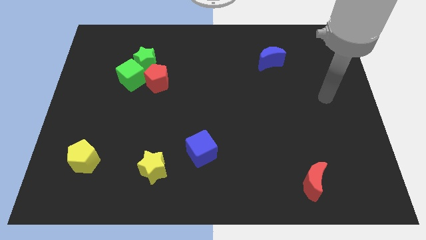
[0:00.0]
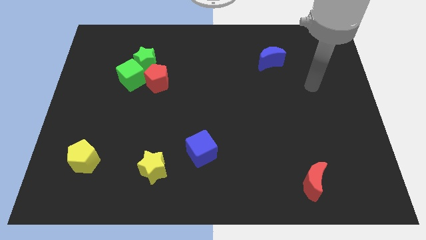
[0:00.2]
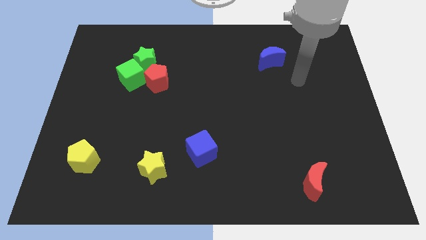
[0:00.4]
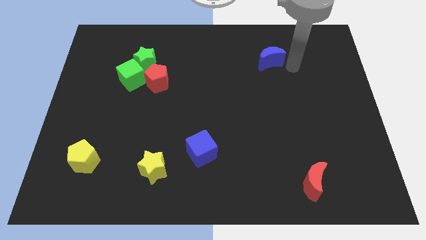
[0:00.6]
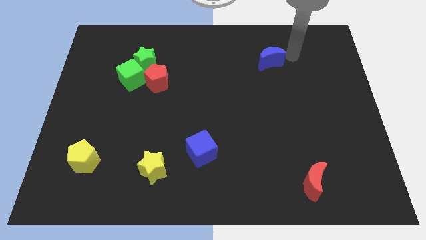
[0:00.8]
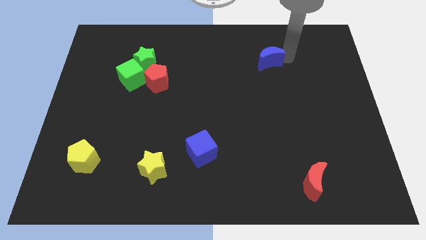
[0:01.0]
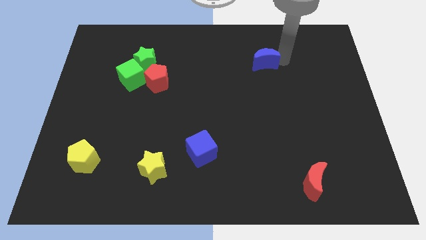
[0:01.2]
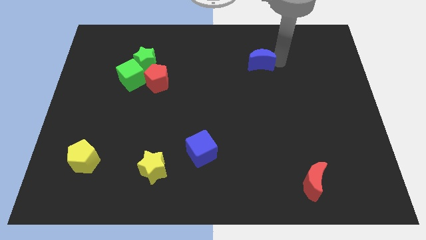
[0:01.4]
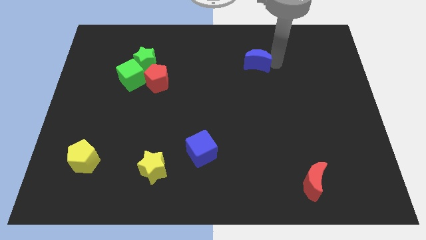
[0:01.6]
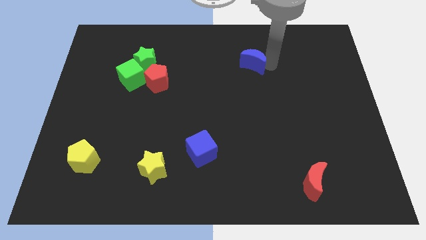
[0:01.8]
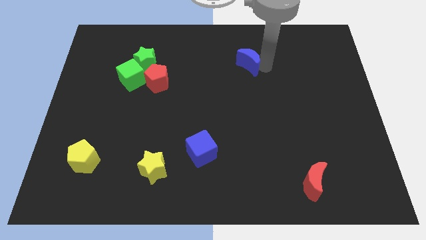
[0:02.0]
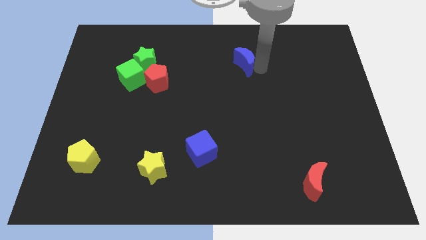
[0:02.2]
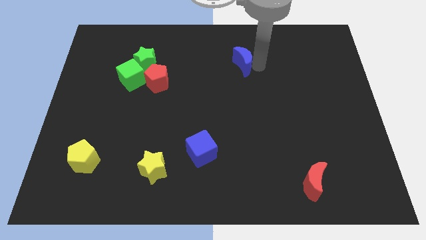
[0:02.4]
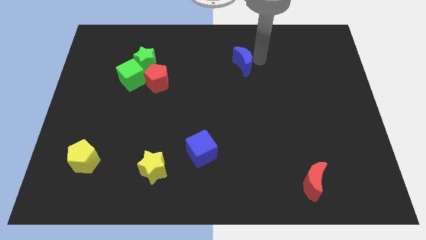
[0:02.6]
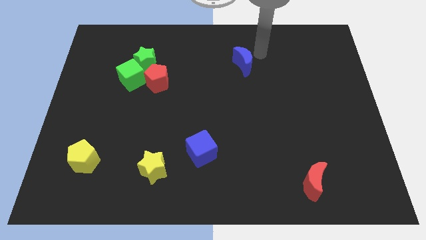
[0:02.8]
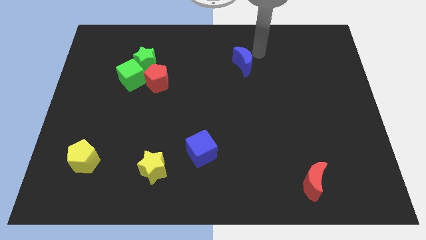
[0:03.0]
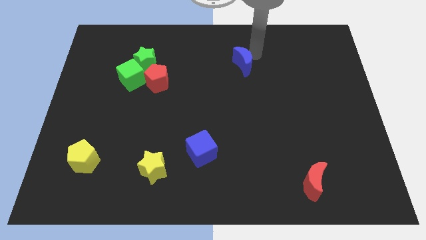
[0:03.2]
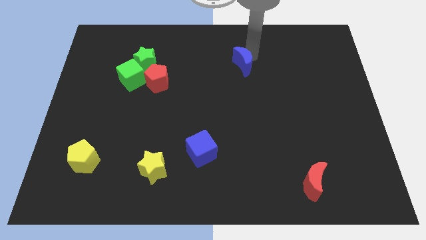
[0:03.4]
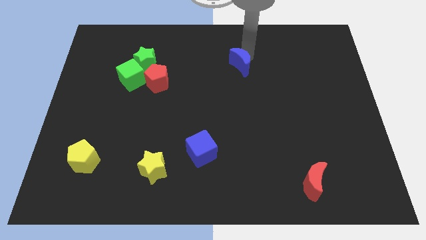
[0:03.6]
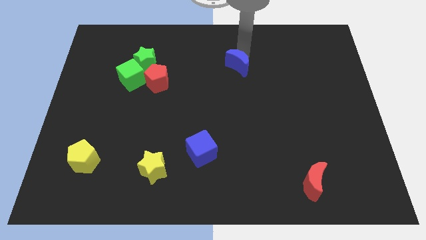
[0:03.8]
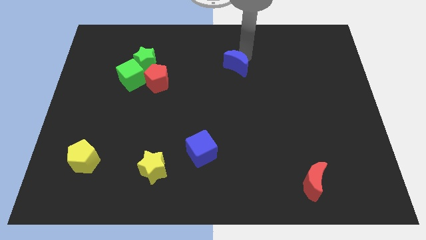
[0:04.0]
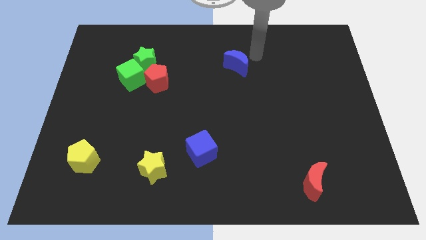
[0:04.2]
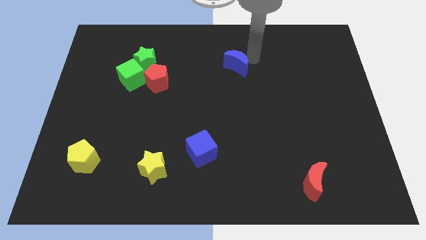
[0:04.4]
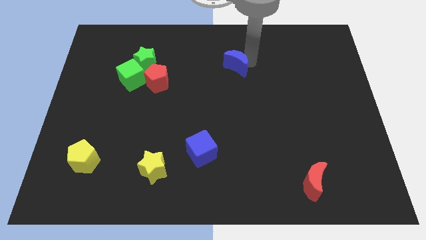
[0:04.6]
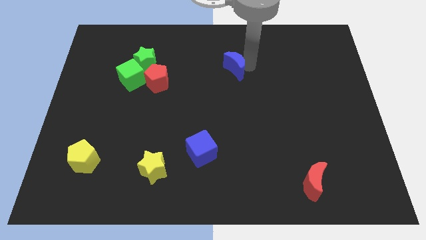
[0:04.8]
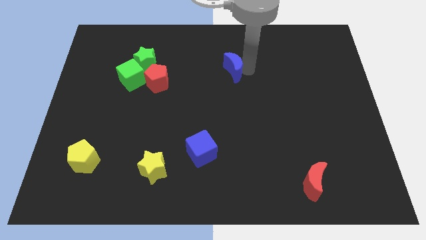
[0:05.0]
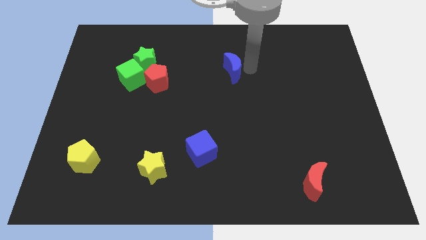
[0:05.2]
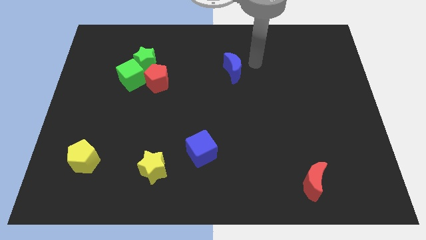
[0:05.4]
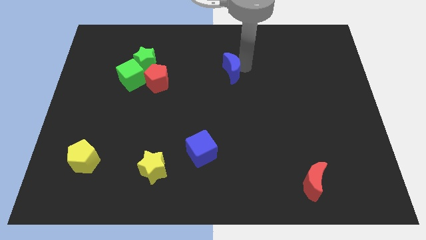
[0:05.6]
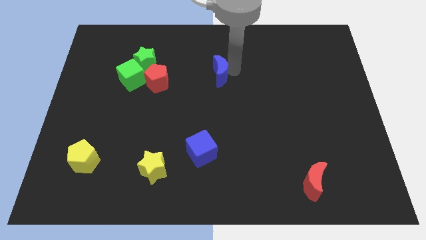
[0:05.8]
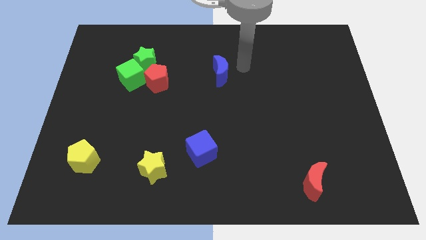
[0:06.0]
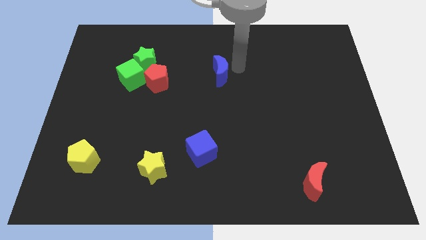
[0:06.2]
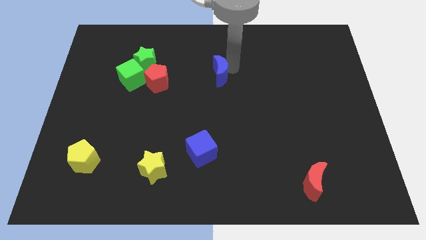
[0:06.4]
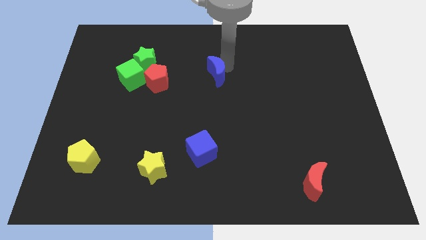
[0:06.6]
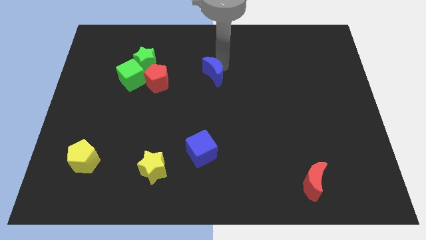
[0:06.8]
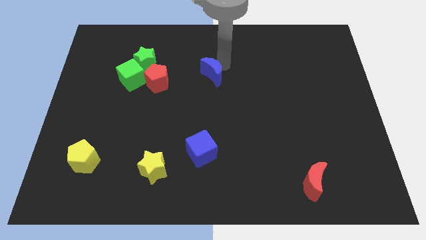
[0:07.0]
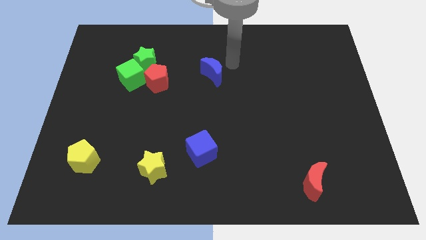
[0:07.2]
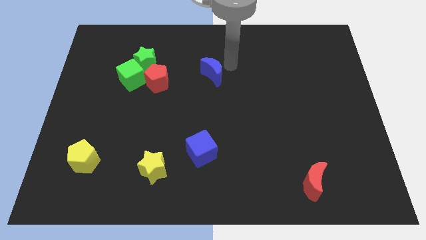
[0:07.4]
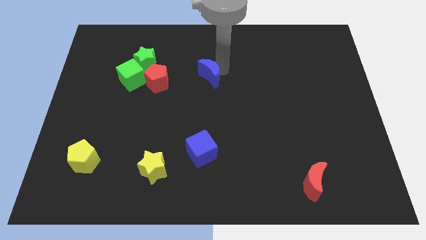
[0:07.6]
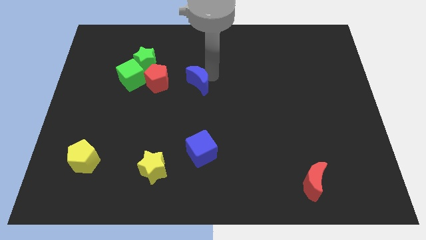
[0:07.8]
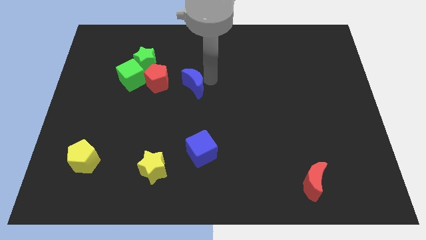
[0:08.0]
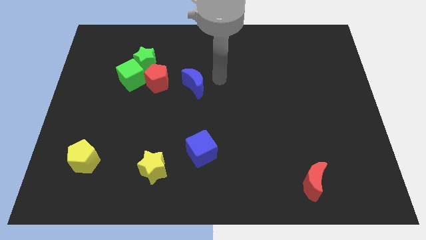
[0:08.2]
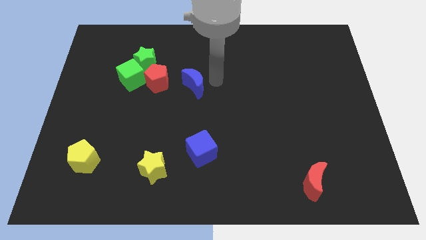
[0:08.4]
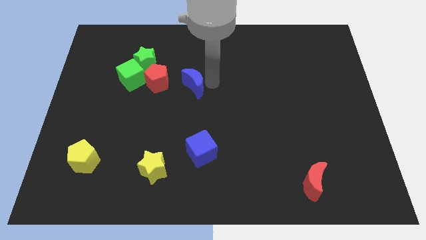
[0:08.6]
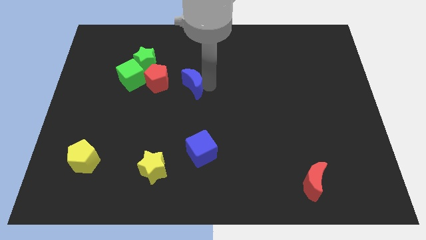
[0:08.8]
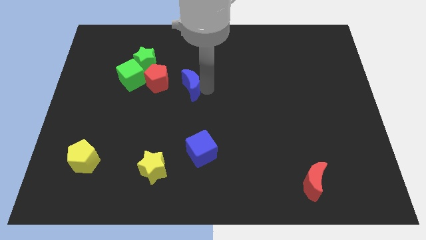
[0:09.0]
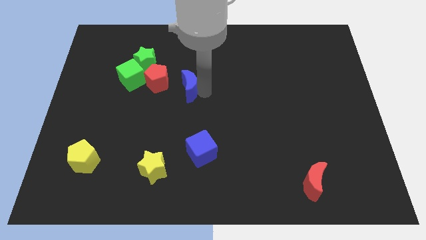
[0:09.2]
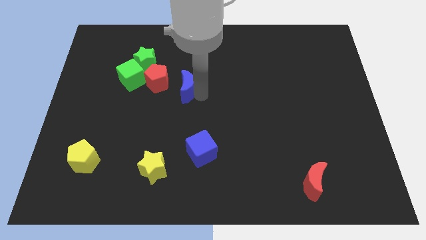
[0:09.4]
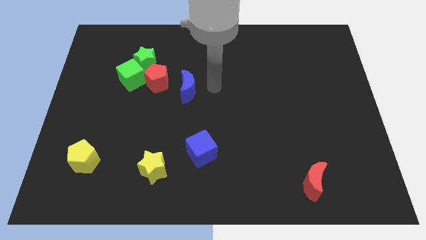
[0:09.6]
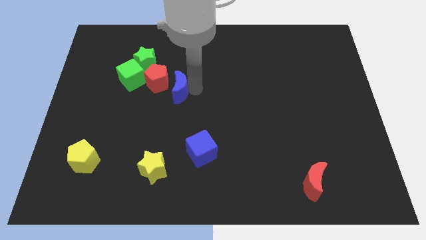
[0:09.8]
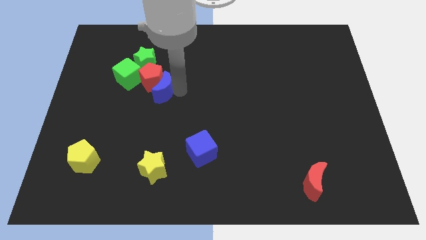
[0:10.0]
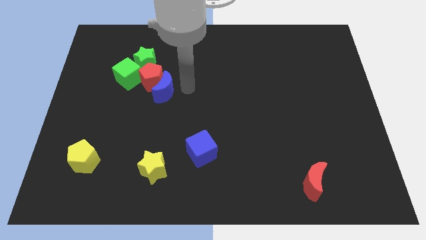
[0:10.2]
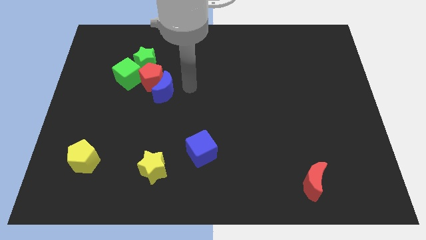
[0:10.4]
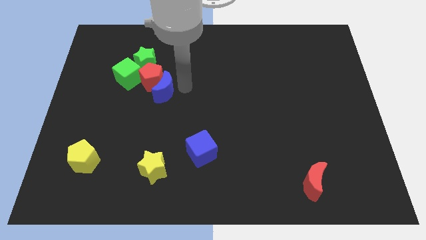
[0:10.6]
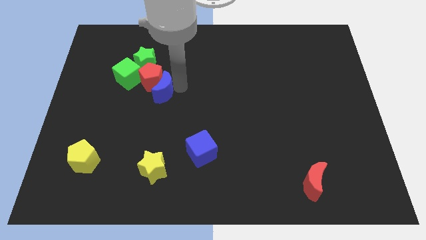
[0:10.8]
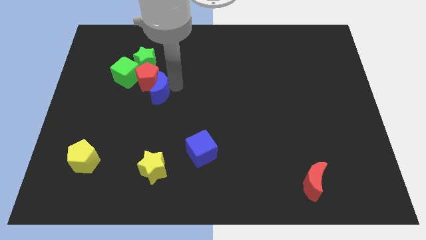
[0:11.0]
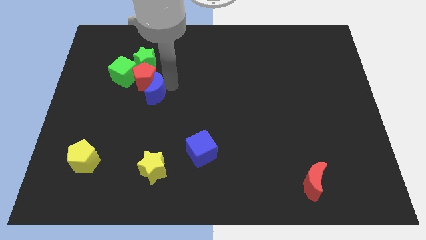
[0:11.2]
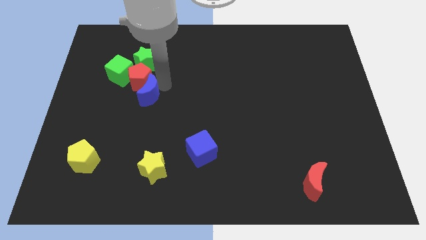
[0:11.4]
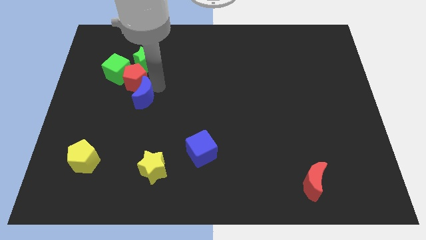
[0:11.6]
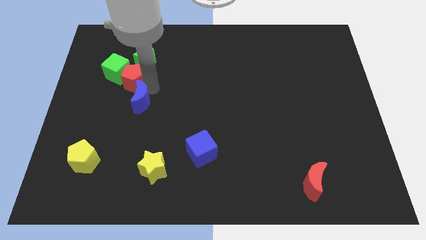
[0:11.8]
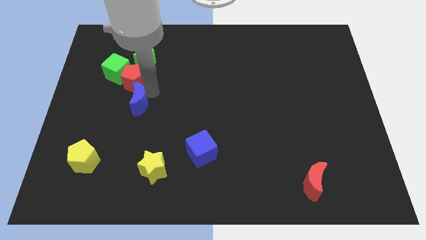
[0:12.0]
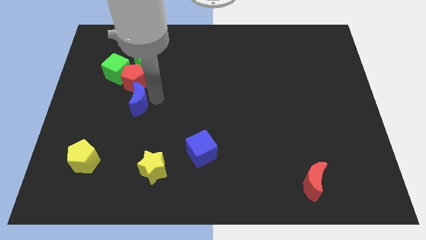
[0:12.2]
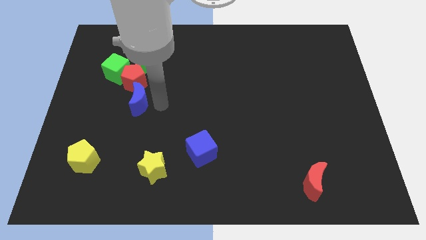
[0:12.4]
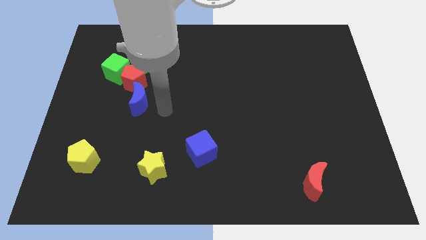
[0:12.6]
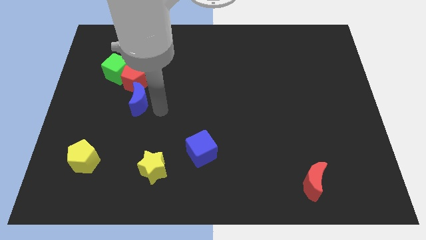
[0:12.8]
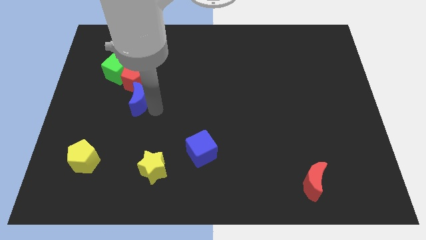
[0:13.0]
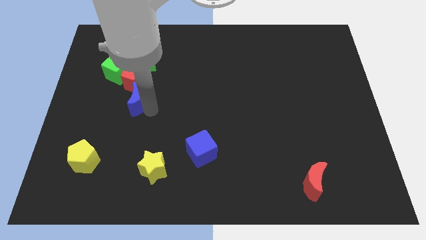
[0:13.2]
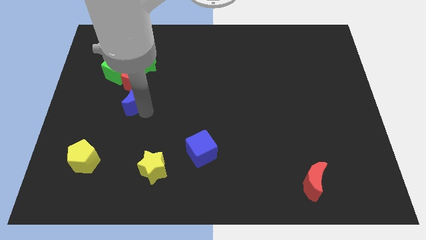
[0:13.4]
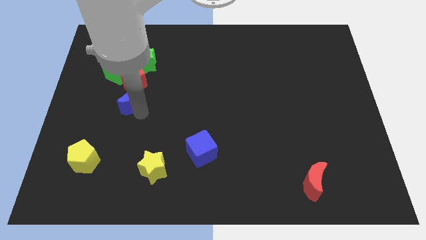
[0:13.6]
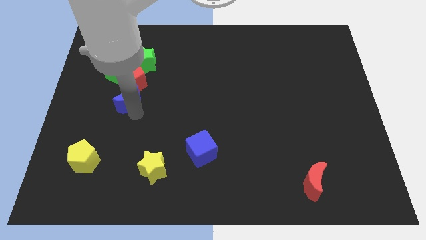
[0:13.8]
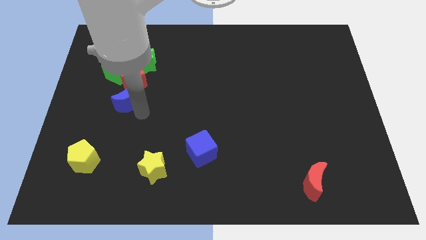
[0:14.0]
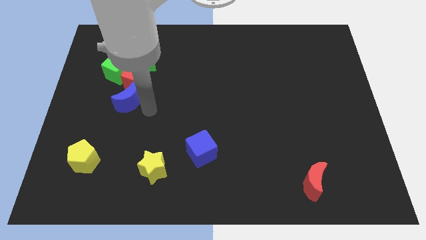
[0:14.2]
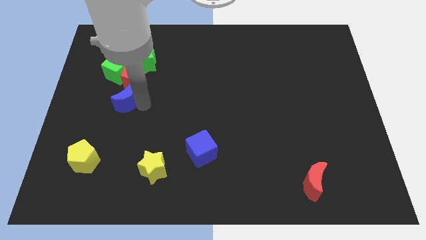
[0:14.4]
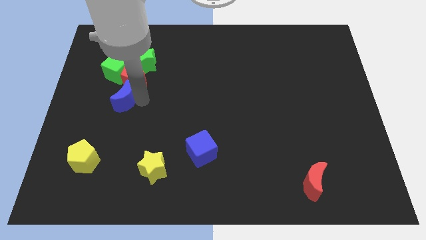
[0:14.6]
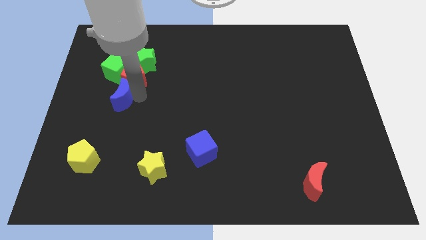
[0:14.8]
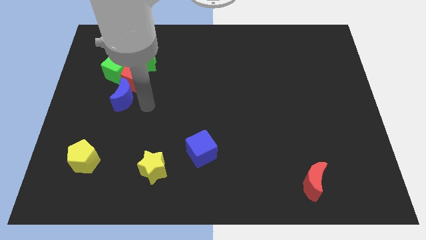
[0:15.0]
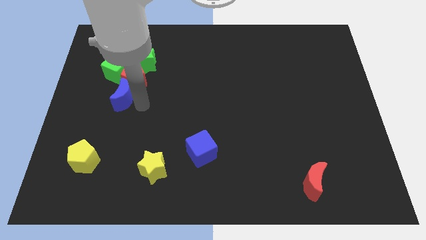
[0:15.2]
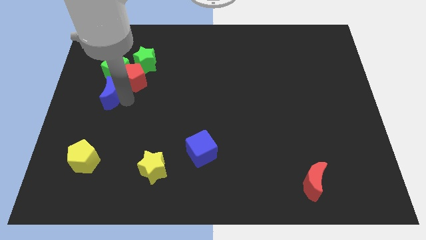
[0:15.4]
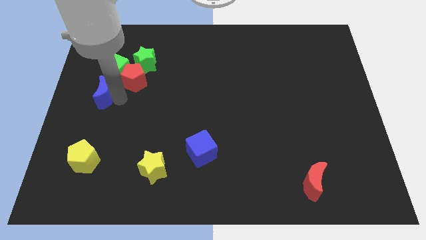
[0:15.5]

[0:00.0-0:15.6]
slide the blue moon diagonally down and to the left of the green cube

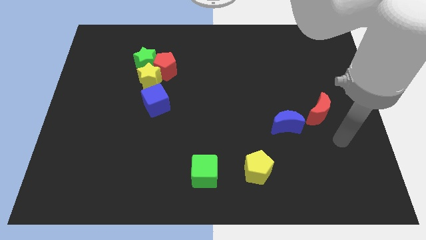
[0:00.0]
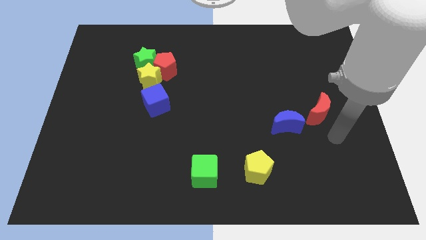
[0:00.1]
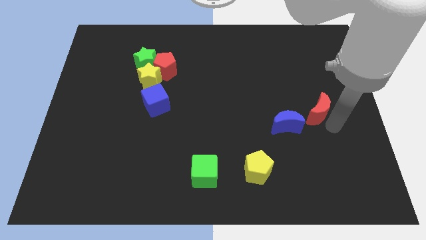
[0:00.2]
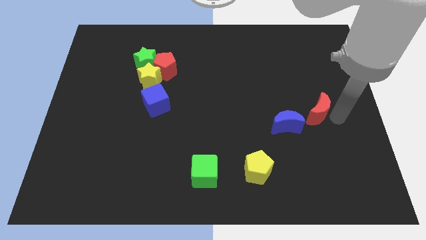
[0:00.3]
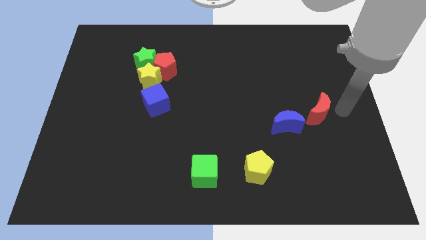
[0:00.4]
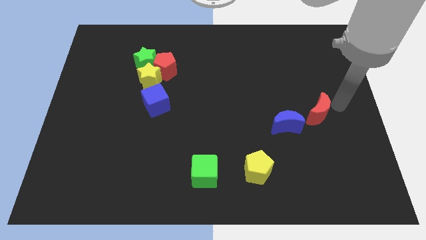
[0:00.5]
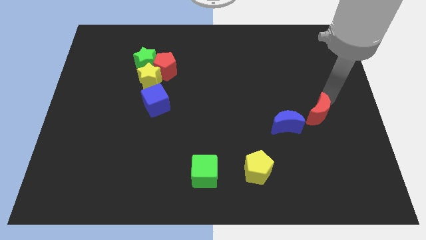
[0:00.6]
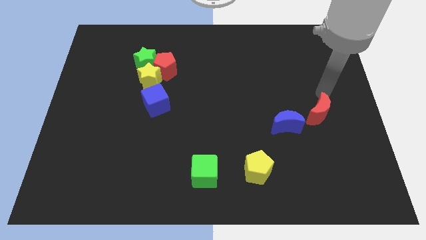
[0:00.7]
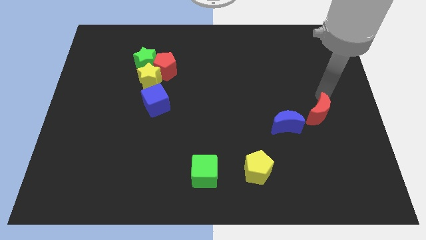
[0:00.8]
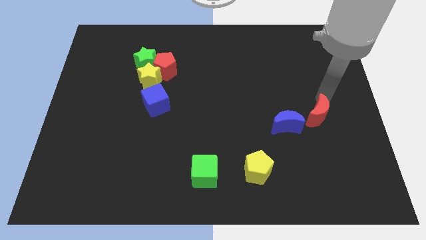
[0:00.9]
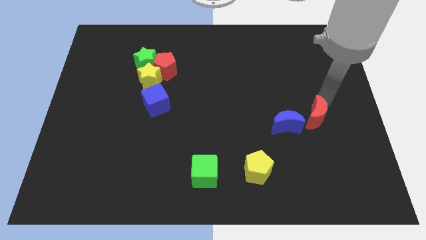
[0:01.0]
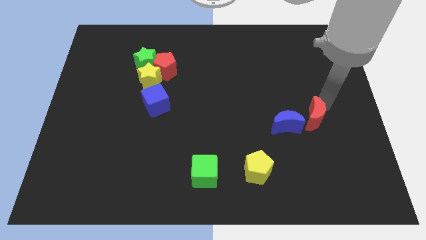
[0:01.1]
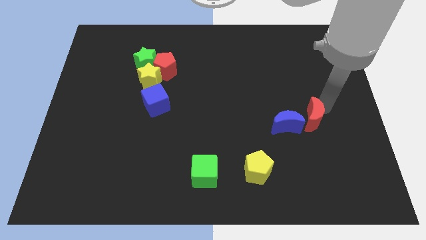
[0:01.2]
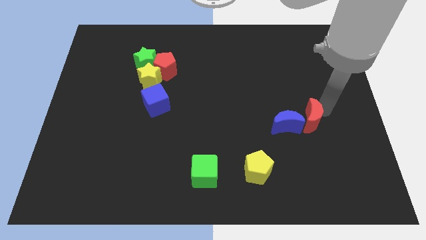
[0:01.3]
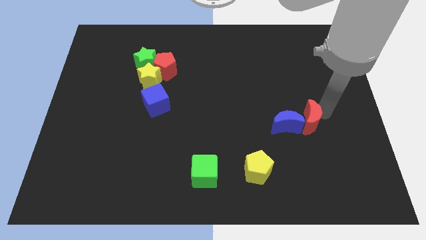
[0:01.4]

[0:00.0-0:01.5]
push the red moon to the bottom right side of the blue moon
